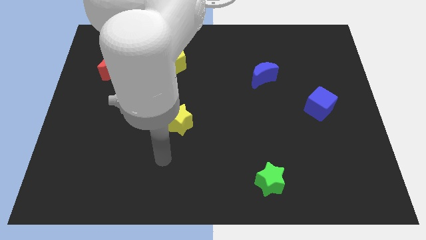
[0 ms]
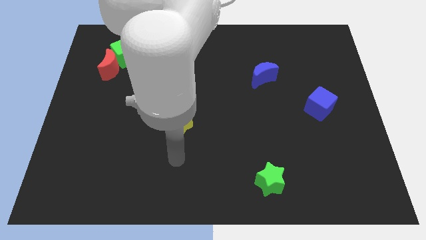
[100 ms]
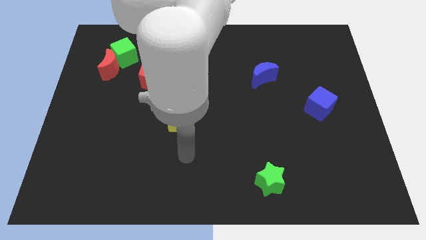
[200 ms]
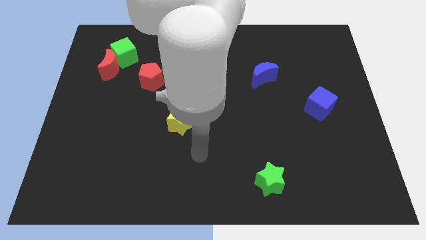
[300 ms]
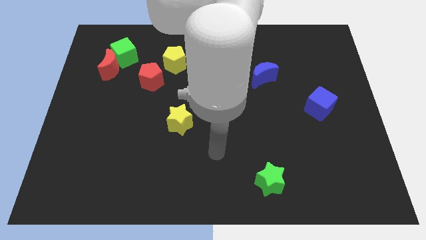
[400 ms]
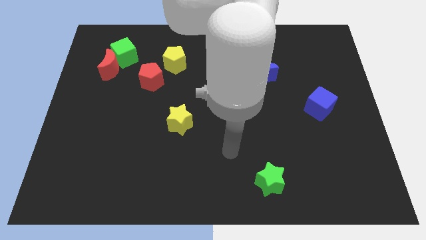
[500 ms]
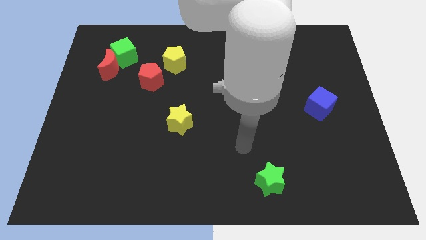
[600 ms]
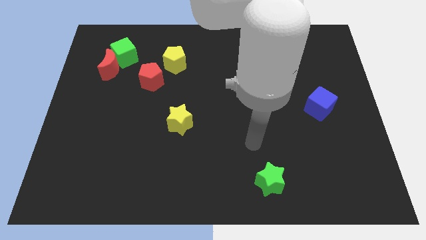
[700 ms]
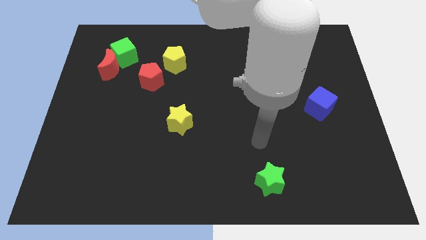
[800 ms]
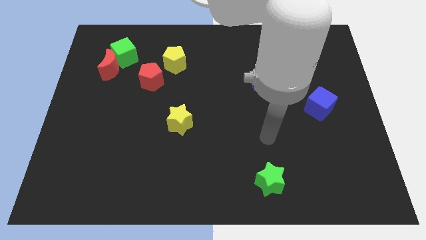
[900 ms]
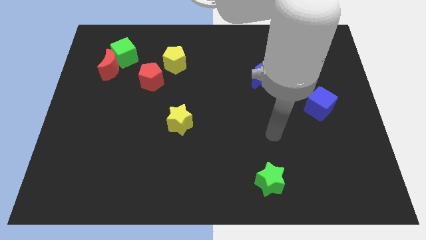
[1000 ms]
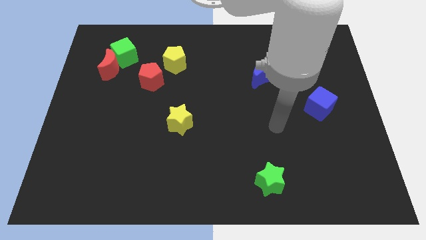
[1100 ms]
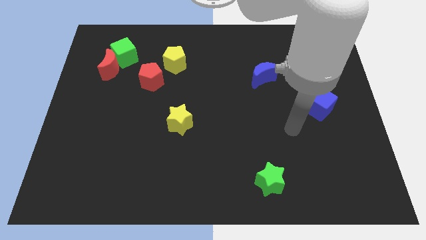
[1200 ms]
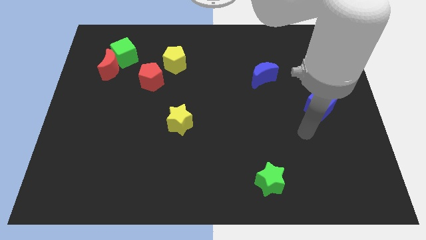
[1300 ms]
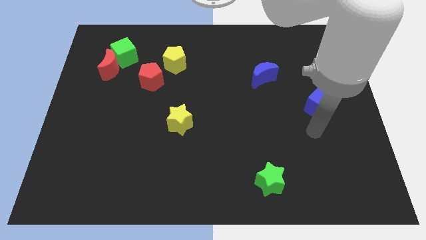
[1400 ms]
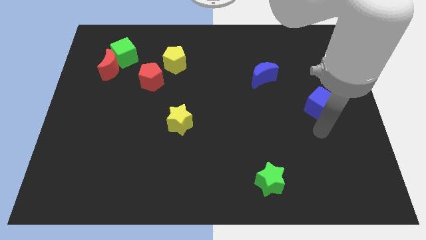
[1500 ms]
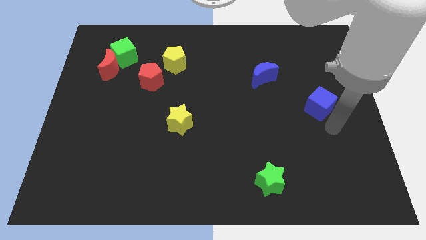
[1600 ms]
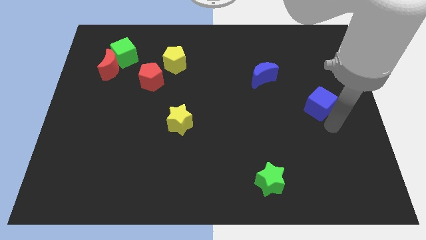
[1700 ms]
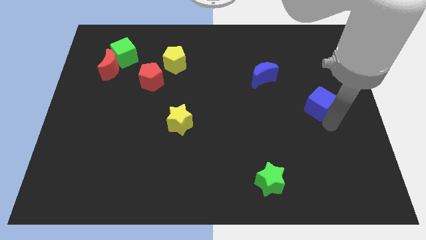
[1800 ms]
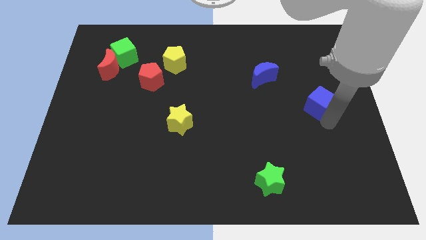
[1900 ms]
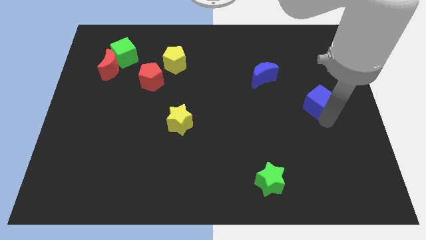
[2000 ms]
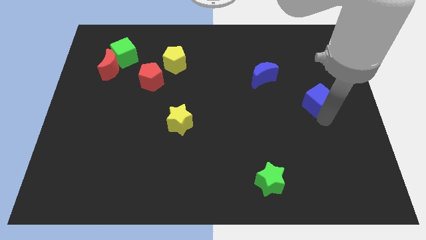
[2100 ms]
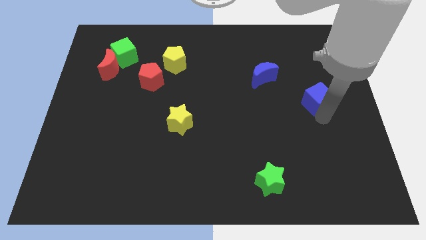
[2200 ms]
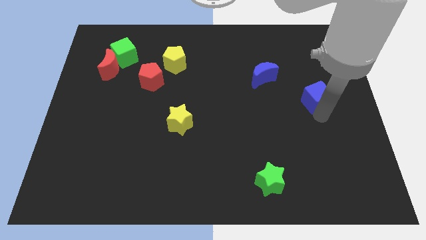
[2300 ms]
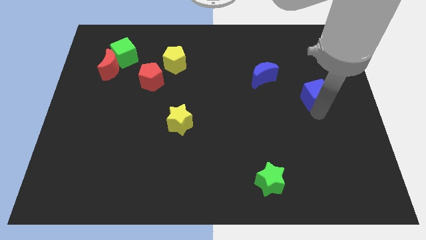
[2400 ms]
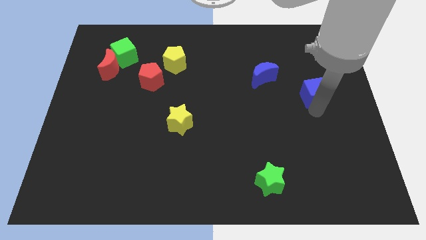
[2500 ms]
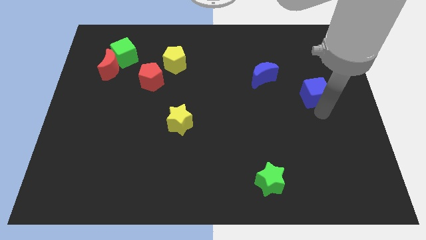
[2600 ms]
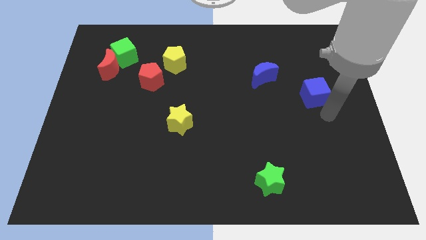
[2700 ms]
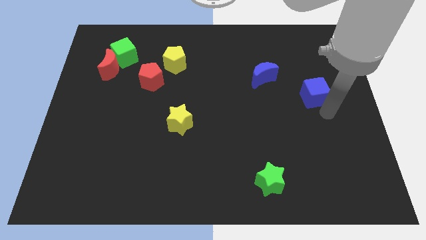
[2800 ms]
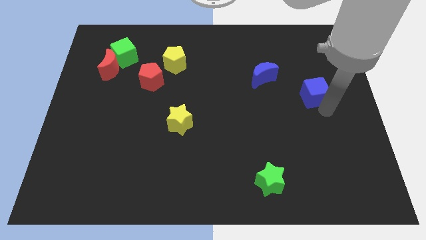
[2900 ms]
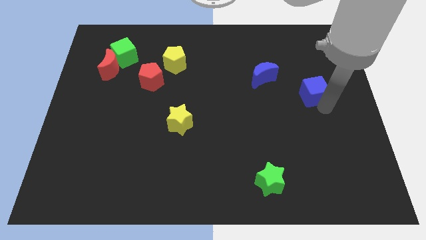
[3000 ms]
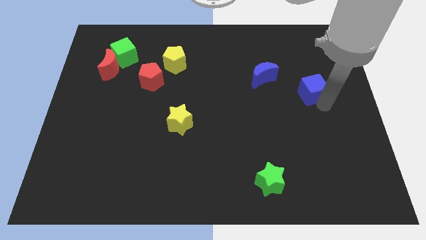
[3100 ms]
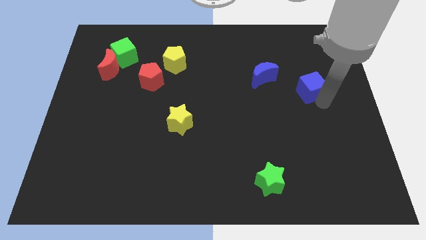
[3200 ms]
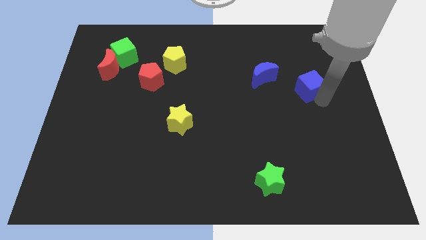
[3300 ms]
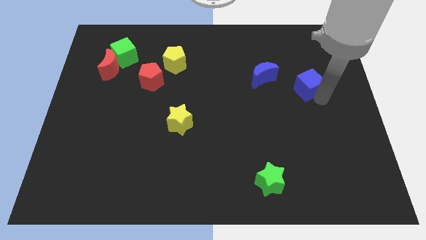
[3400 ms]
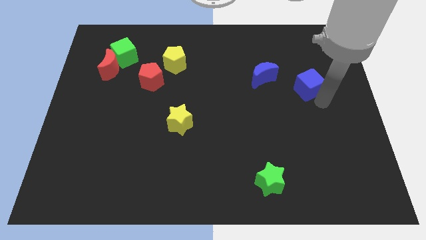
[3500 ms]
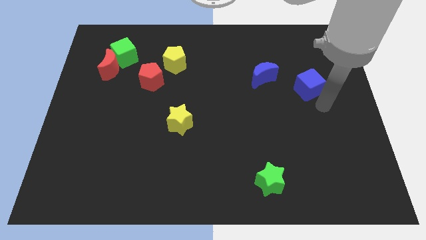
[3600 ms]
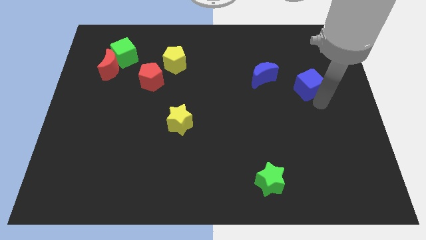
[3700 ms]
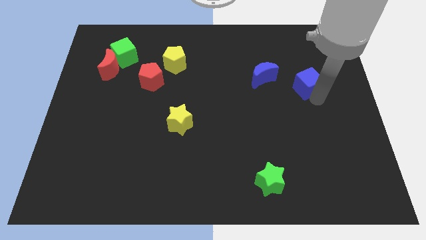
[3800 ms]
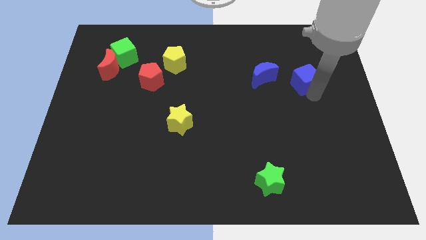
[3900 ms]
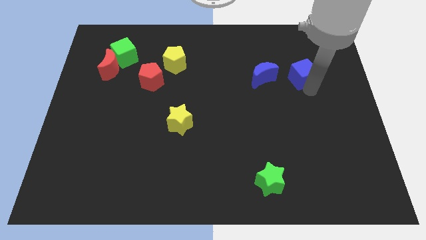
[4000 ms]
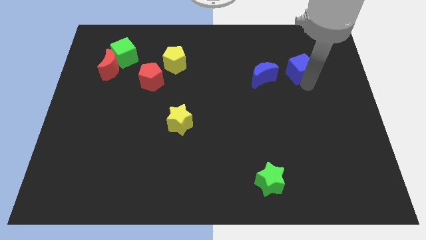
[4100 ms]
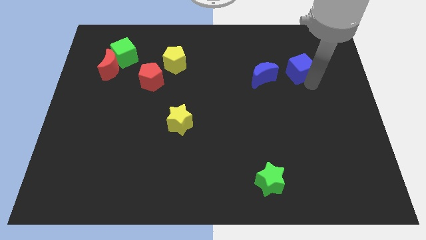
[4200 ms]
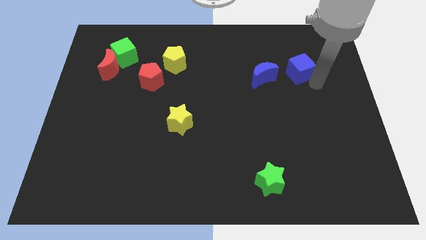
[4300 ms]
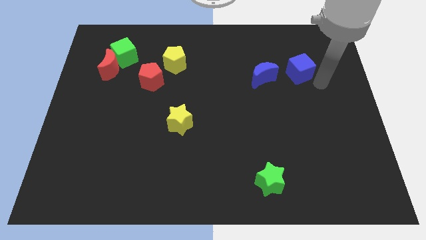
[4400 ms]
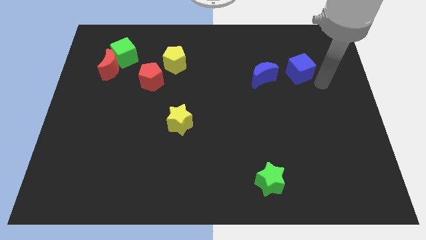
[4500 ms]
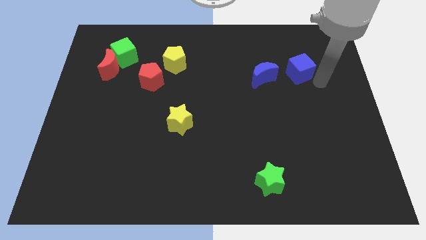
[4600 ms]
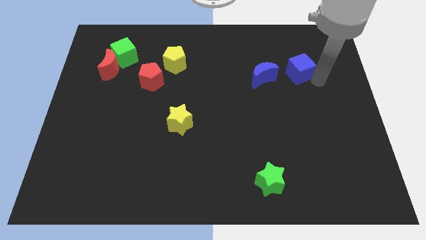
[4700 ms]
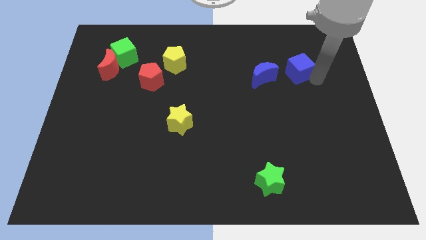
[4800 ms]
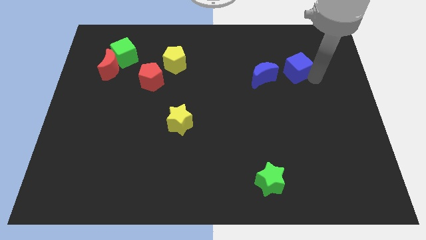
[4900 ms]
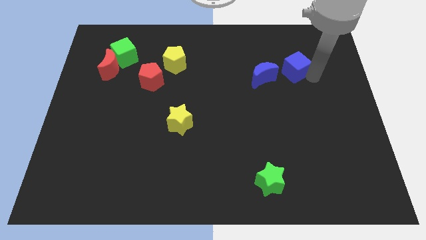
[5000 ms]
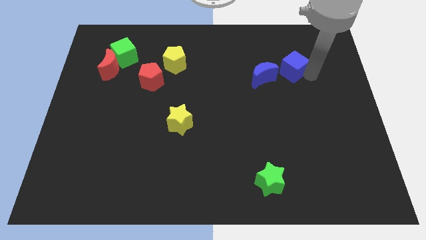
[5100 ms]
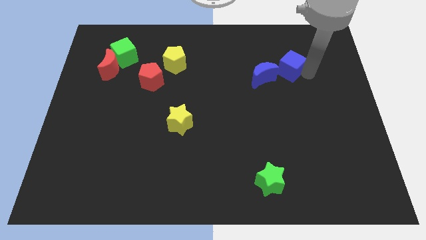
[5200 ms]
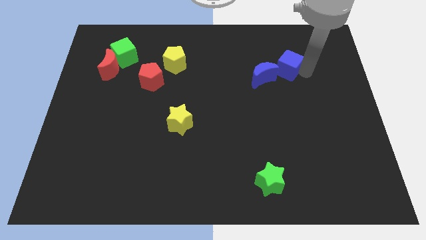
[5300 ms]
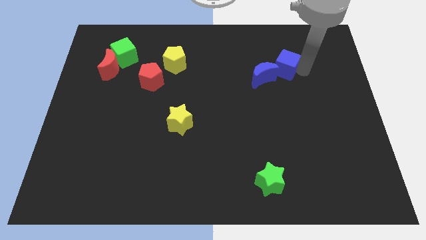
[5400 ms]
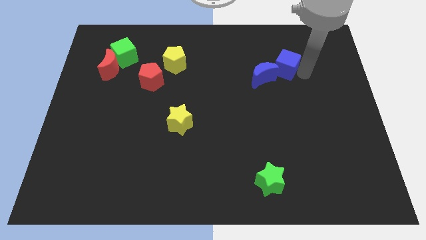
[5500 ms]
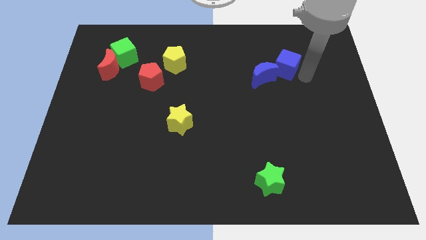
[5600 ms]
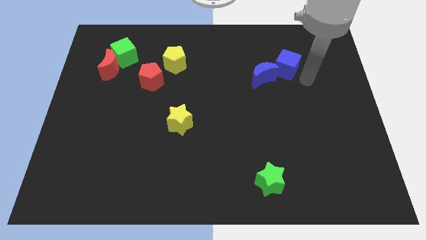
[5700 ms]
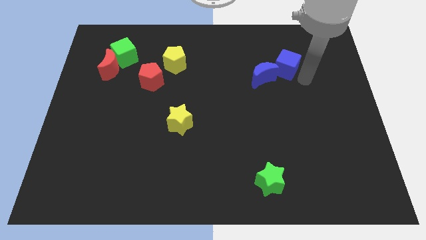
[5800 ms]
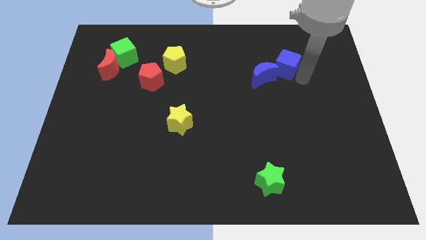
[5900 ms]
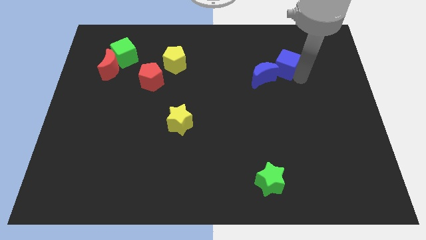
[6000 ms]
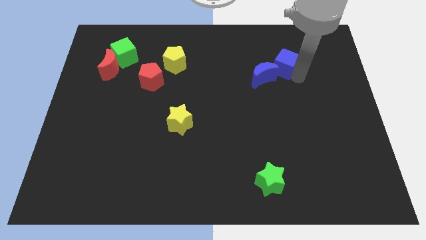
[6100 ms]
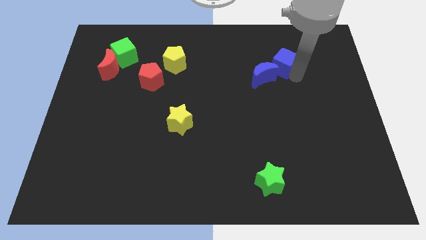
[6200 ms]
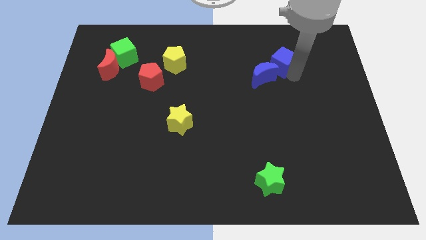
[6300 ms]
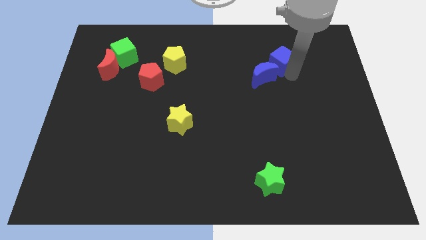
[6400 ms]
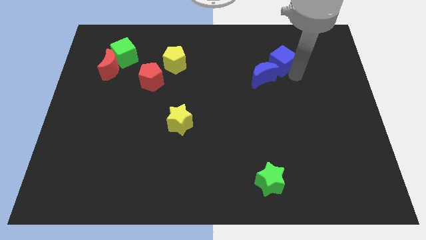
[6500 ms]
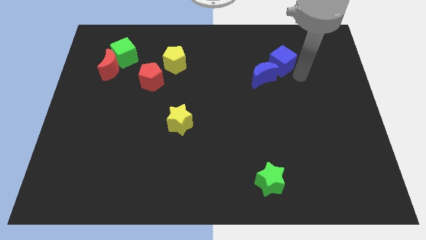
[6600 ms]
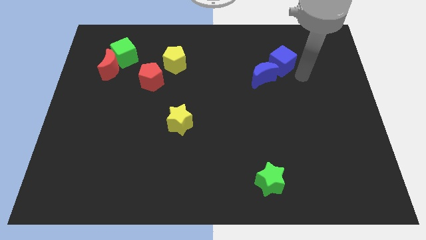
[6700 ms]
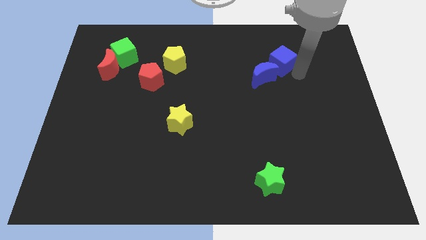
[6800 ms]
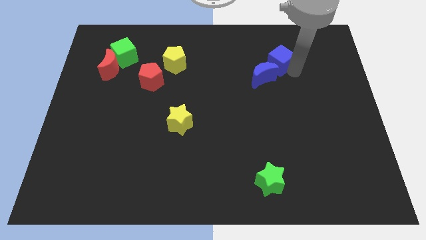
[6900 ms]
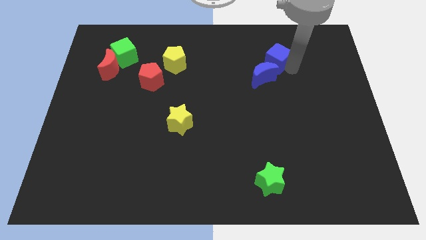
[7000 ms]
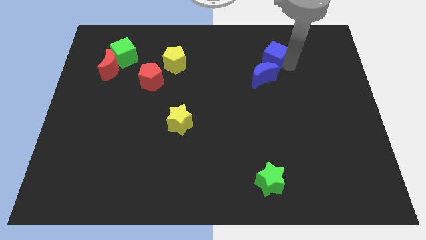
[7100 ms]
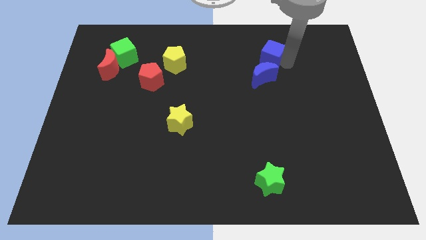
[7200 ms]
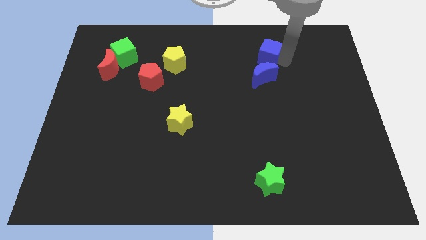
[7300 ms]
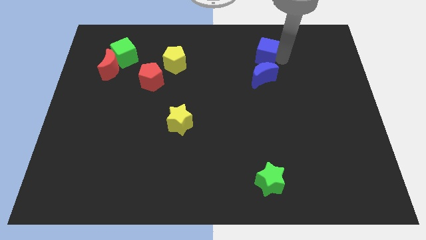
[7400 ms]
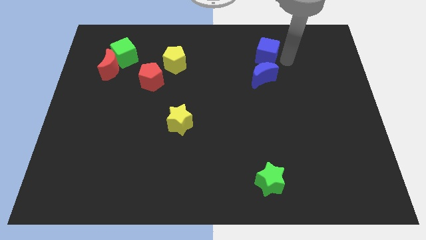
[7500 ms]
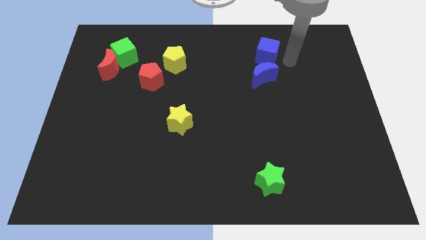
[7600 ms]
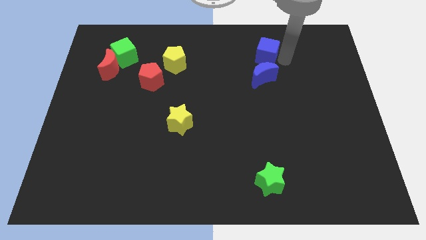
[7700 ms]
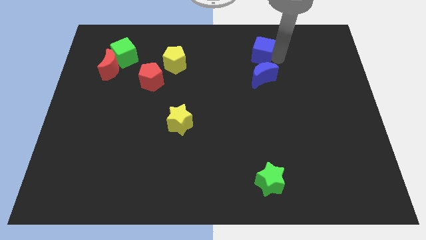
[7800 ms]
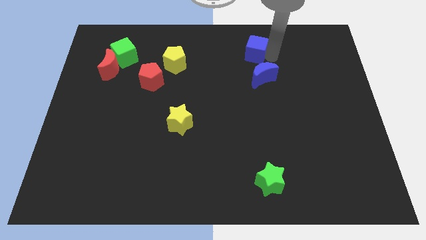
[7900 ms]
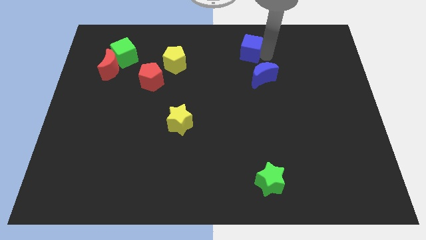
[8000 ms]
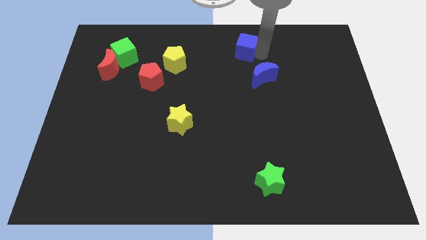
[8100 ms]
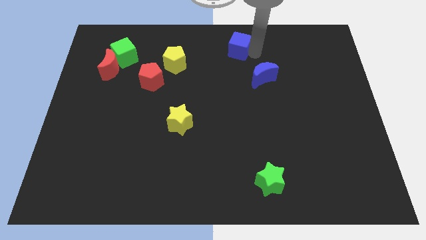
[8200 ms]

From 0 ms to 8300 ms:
put the blue cube to the towards your base
